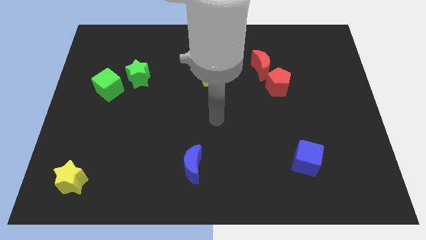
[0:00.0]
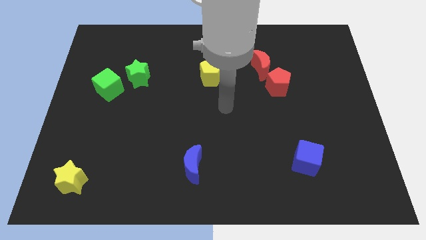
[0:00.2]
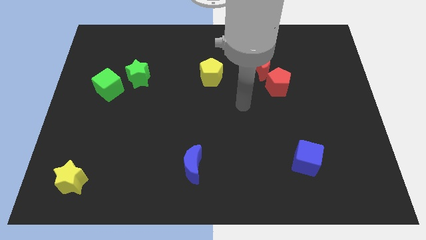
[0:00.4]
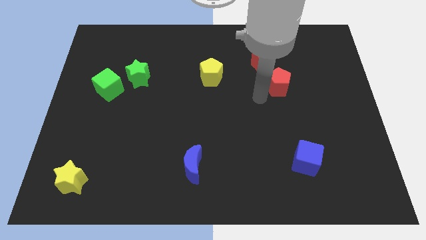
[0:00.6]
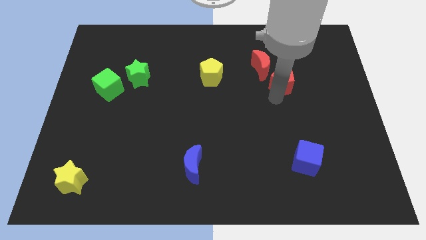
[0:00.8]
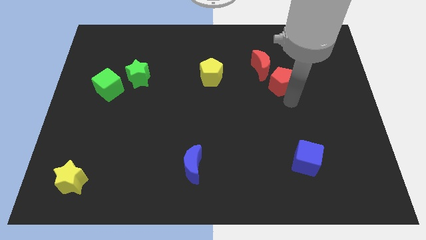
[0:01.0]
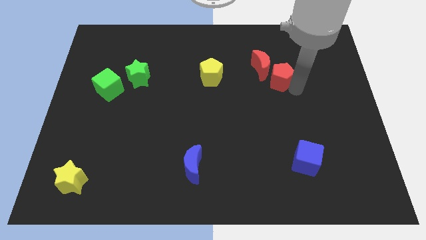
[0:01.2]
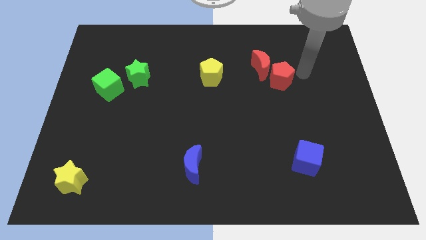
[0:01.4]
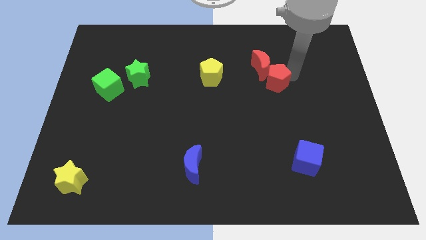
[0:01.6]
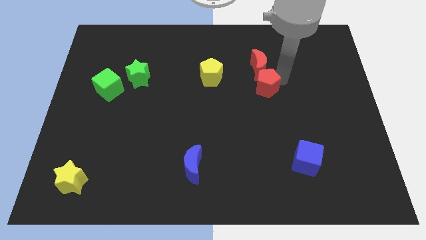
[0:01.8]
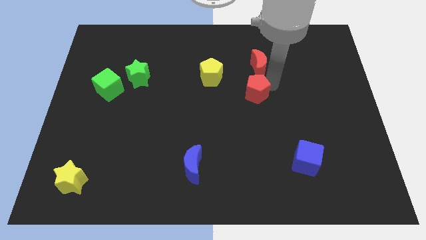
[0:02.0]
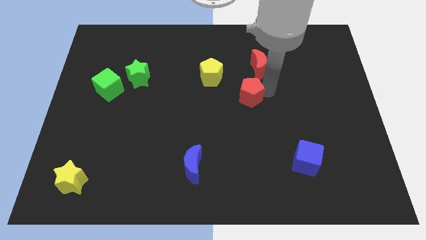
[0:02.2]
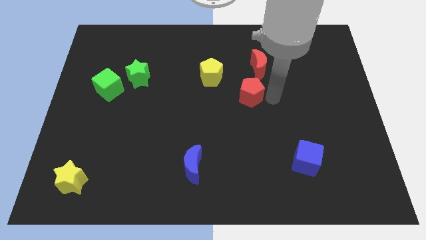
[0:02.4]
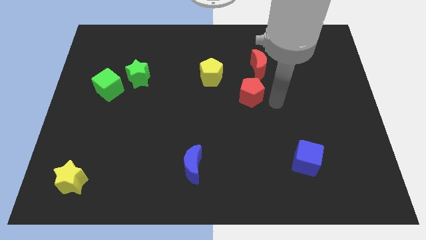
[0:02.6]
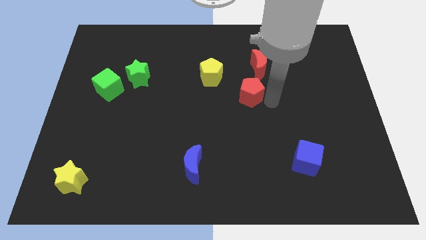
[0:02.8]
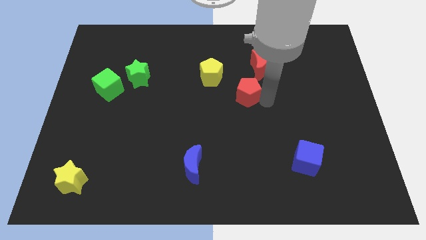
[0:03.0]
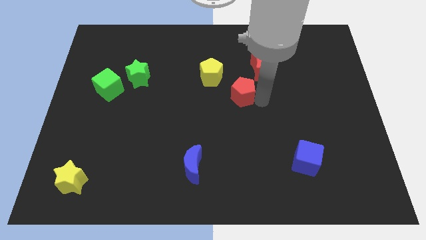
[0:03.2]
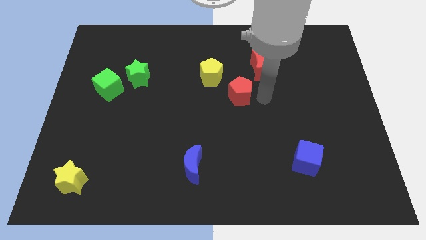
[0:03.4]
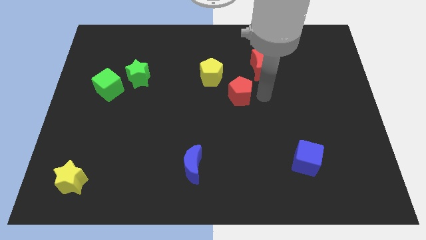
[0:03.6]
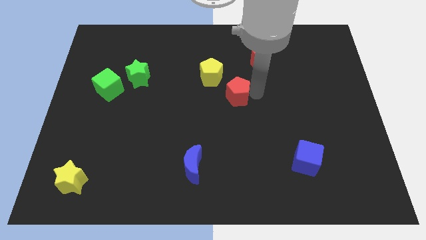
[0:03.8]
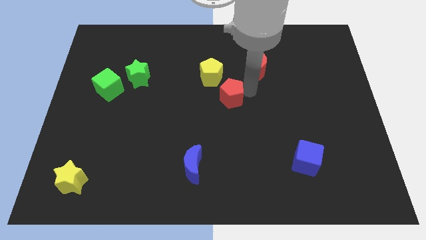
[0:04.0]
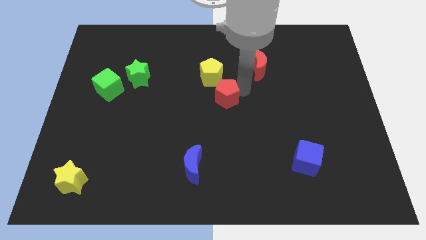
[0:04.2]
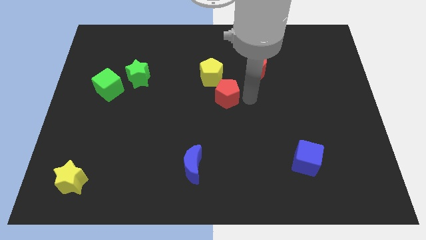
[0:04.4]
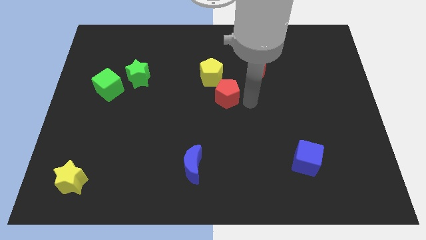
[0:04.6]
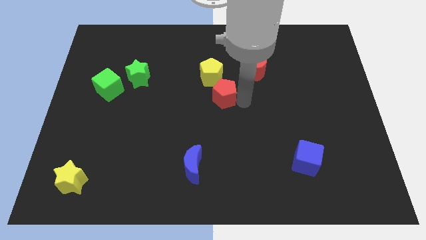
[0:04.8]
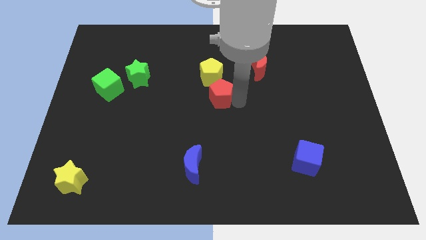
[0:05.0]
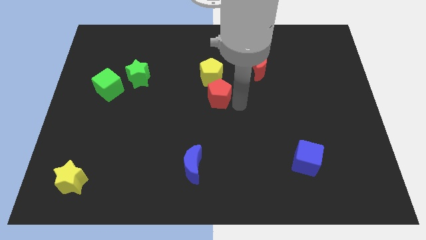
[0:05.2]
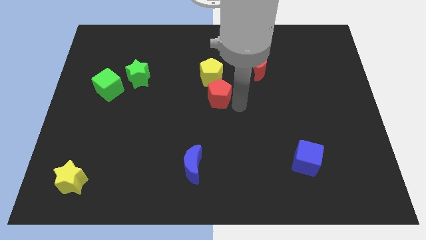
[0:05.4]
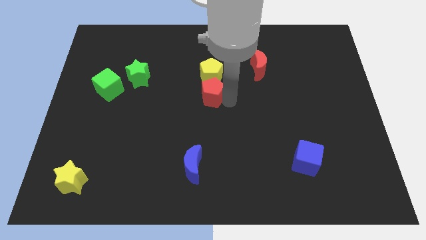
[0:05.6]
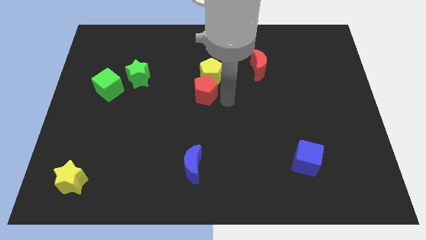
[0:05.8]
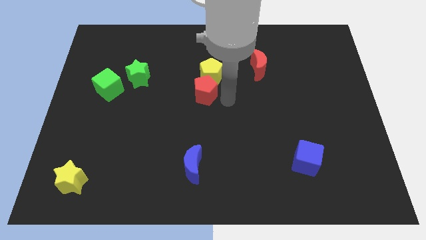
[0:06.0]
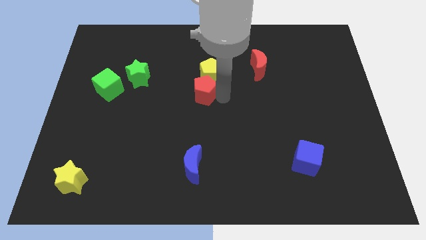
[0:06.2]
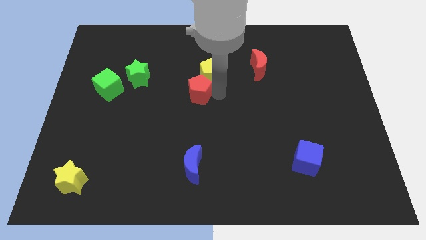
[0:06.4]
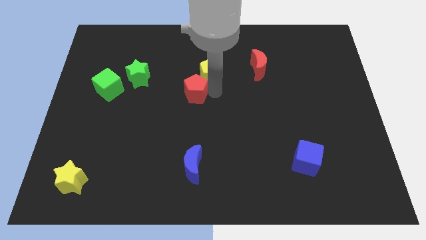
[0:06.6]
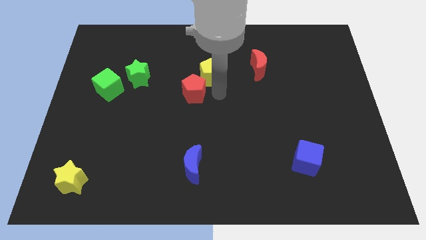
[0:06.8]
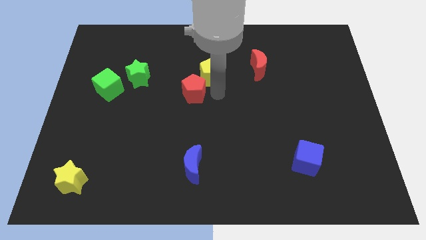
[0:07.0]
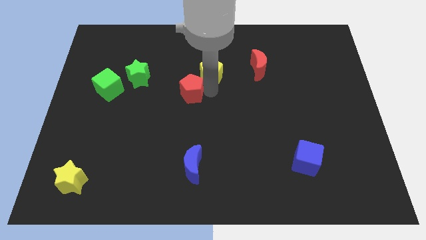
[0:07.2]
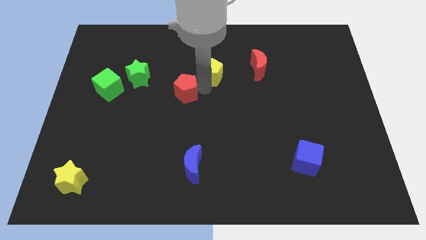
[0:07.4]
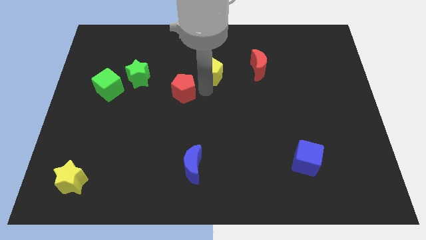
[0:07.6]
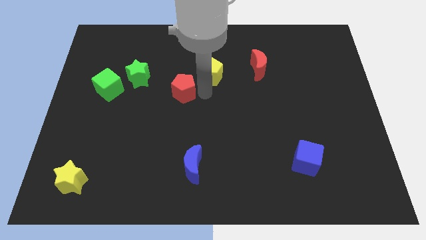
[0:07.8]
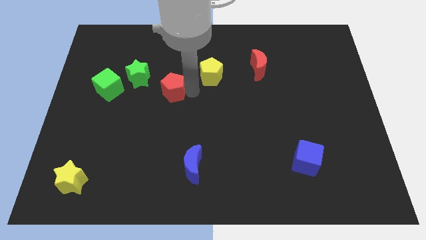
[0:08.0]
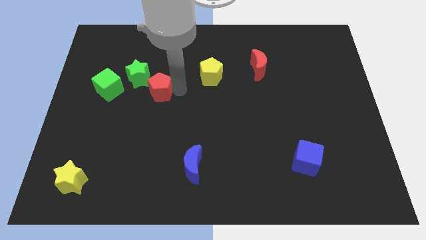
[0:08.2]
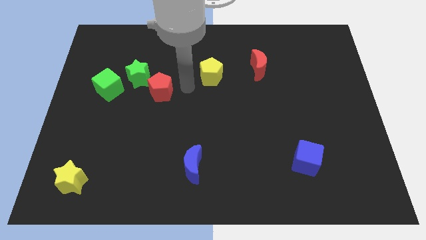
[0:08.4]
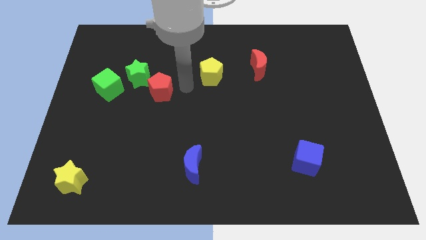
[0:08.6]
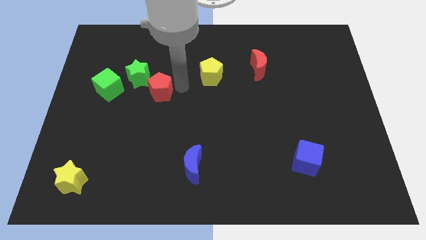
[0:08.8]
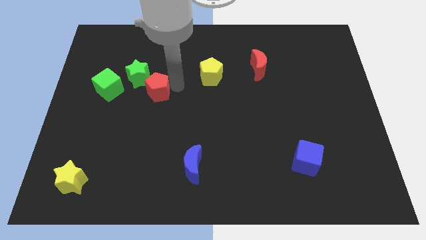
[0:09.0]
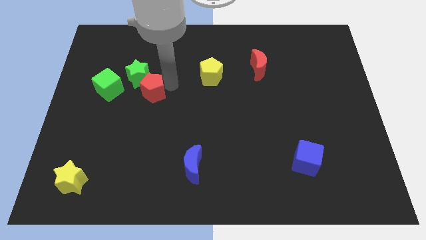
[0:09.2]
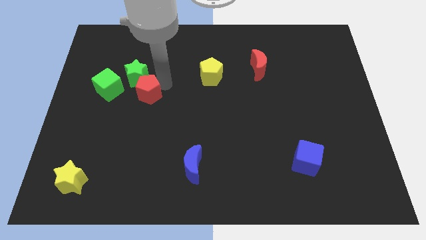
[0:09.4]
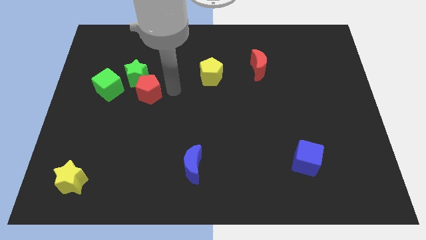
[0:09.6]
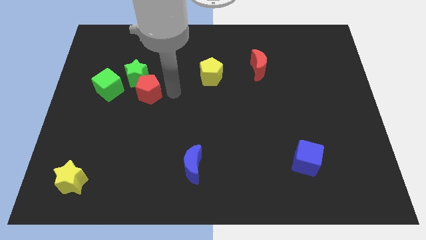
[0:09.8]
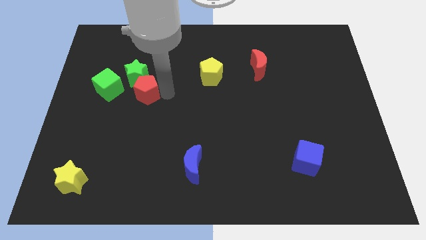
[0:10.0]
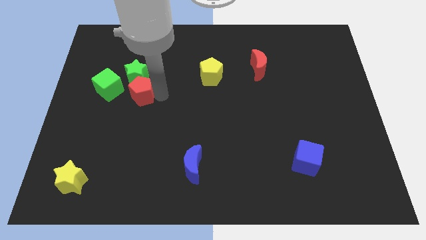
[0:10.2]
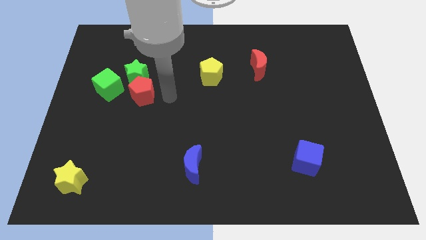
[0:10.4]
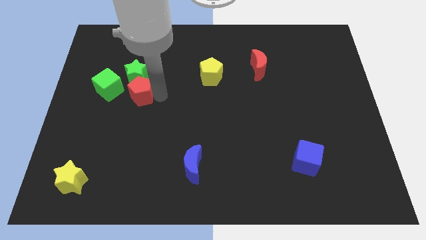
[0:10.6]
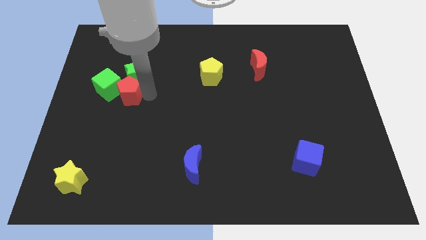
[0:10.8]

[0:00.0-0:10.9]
move the red pentagon to the green cube
